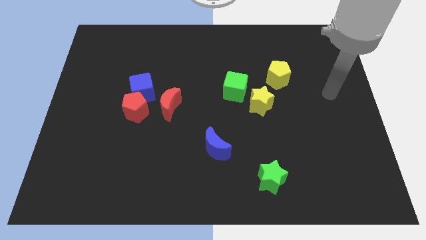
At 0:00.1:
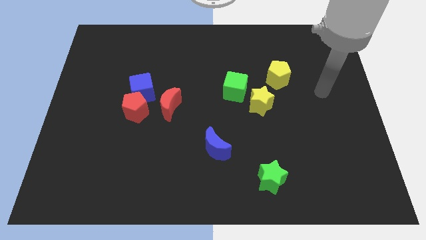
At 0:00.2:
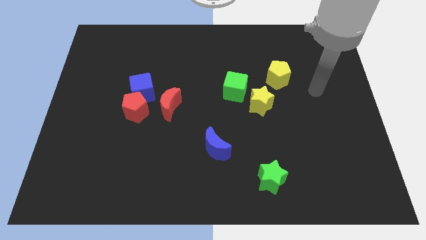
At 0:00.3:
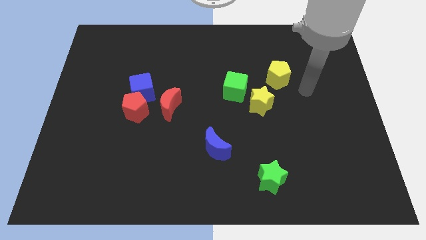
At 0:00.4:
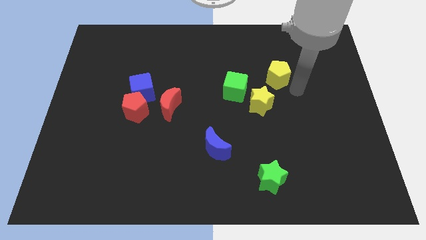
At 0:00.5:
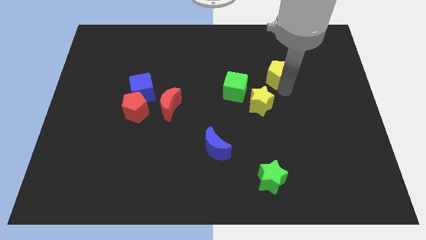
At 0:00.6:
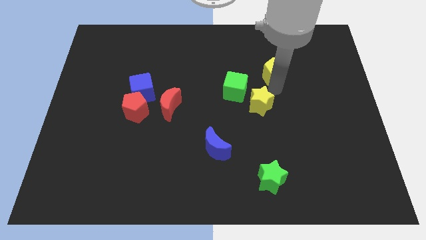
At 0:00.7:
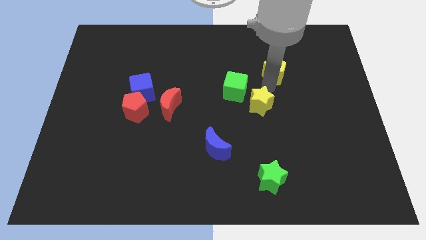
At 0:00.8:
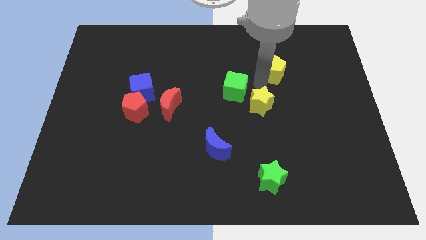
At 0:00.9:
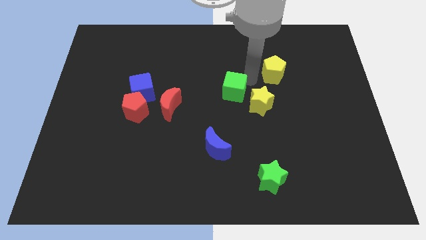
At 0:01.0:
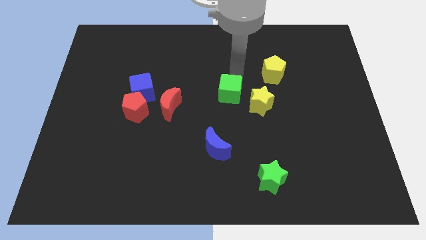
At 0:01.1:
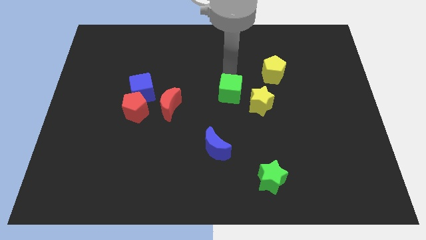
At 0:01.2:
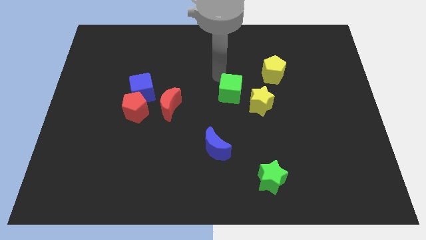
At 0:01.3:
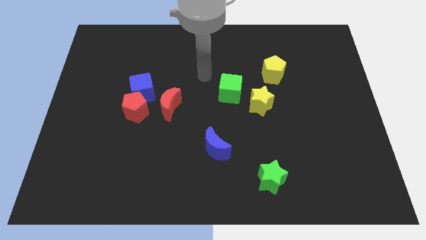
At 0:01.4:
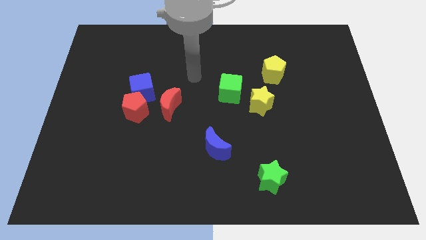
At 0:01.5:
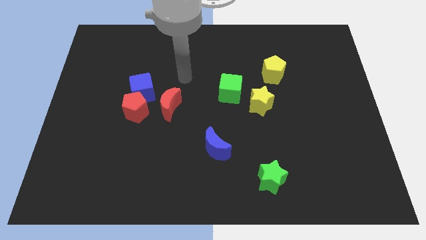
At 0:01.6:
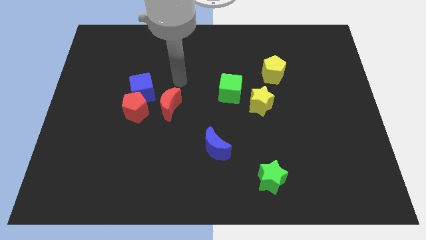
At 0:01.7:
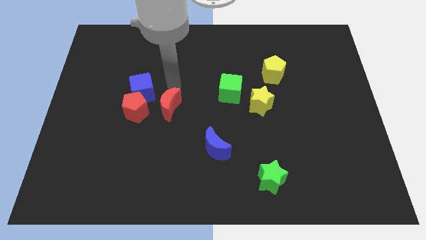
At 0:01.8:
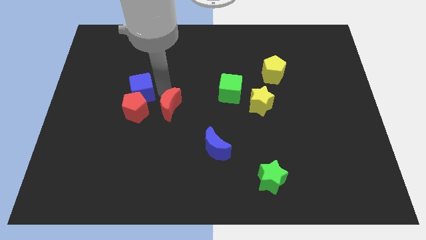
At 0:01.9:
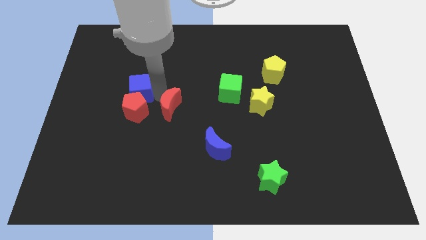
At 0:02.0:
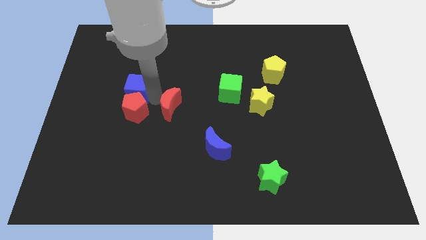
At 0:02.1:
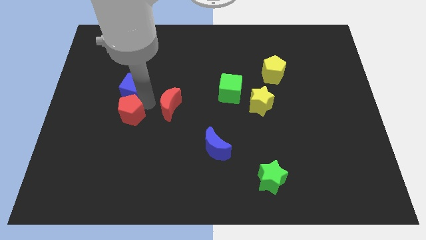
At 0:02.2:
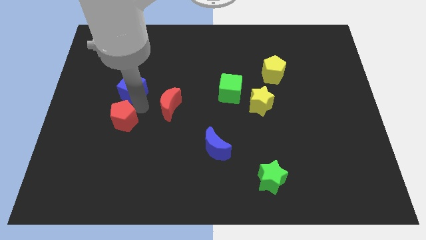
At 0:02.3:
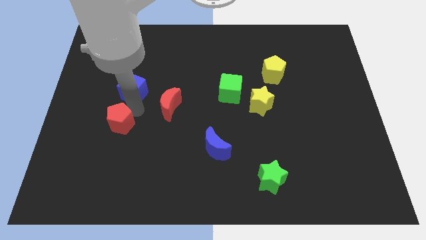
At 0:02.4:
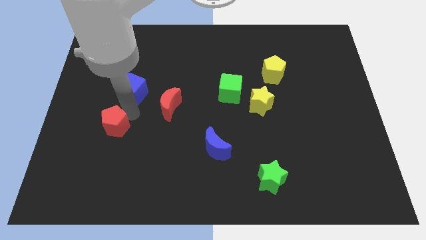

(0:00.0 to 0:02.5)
pull the red pentagon apart from the blue cube and red moon

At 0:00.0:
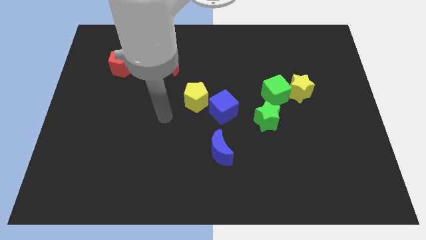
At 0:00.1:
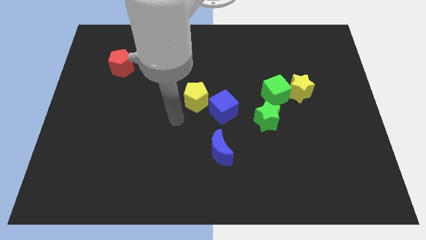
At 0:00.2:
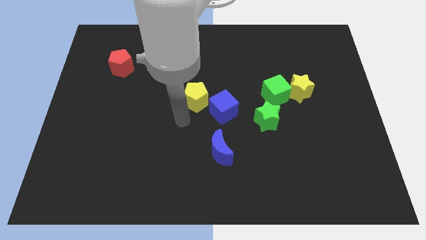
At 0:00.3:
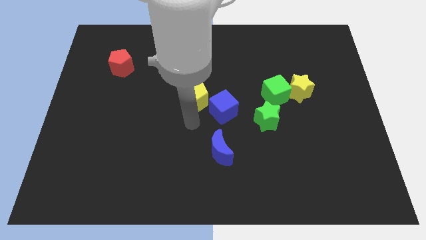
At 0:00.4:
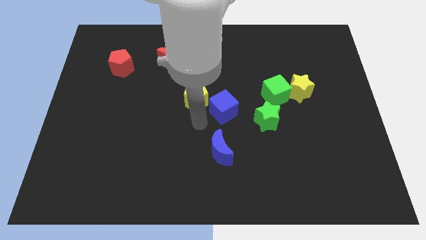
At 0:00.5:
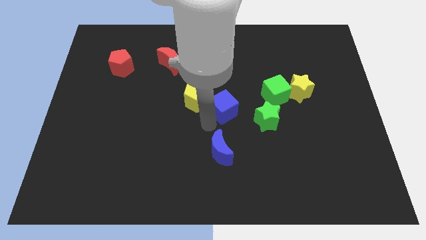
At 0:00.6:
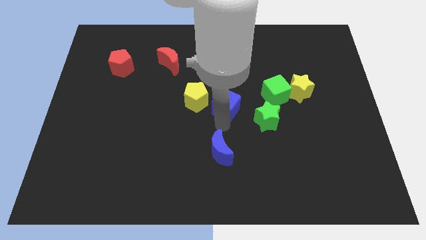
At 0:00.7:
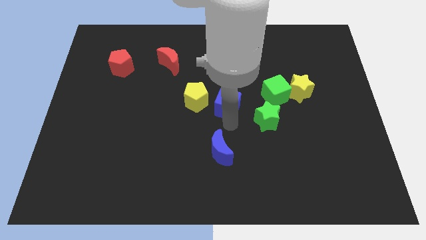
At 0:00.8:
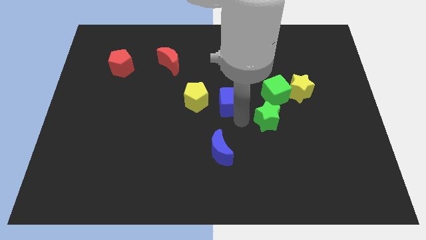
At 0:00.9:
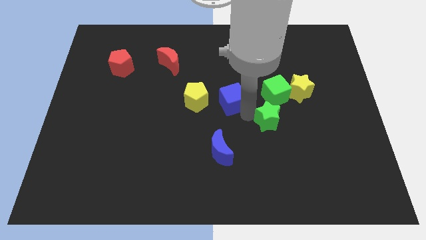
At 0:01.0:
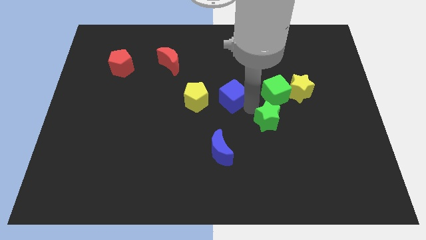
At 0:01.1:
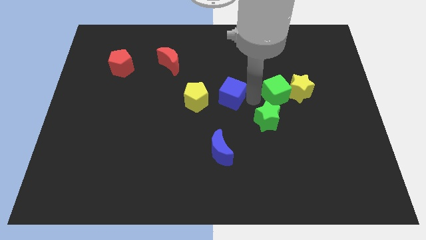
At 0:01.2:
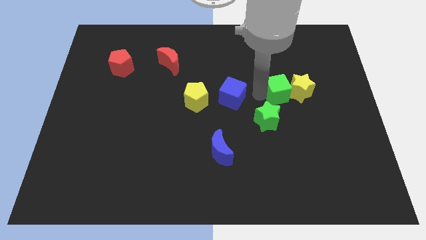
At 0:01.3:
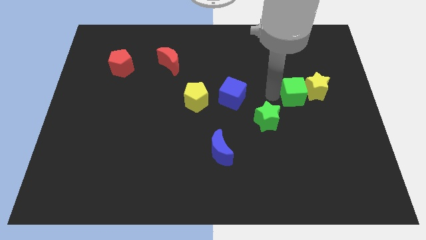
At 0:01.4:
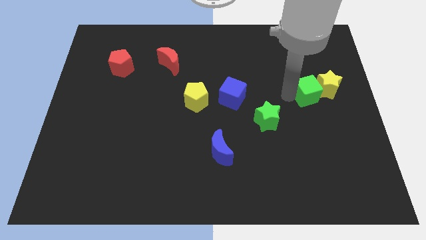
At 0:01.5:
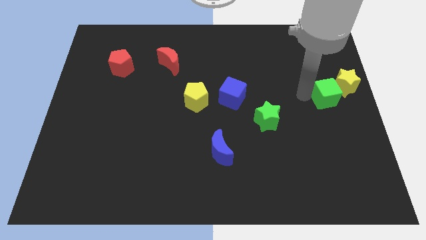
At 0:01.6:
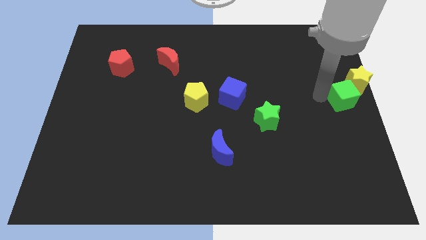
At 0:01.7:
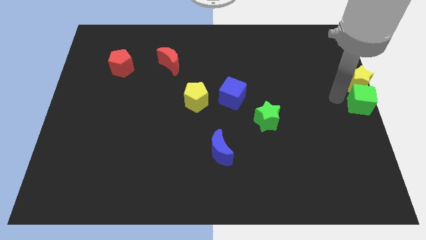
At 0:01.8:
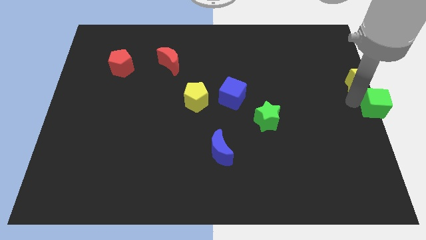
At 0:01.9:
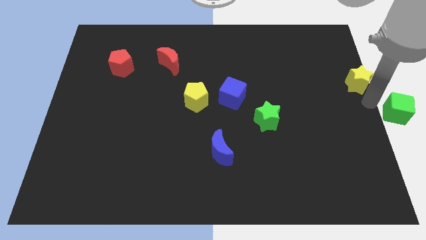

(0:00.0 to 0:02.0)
move the yellow star away from the green cube

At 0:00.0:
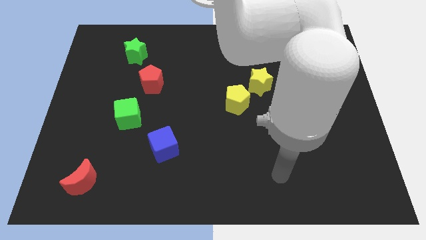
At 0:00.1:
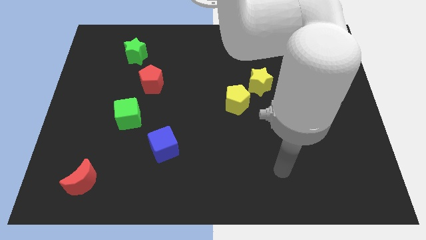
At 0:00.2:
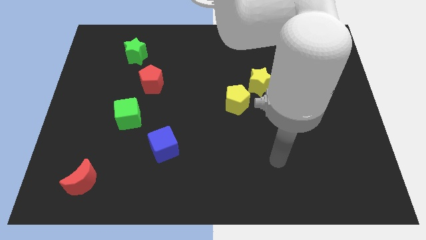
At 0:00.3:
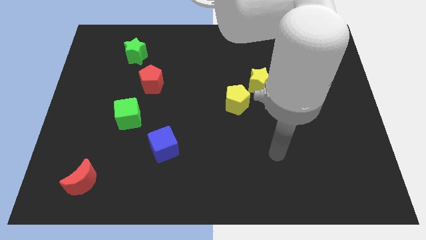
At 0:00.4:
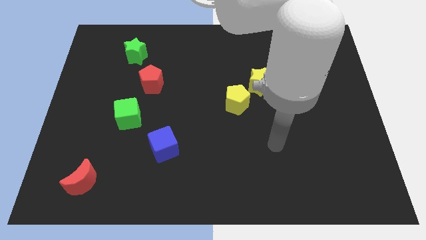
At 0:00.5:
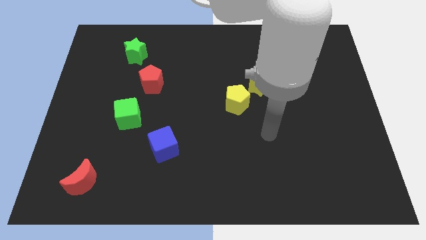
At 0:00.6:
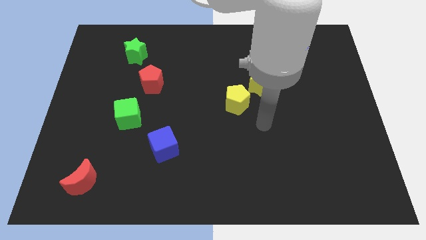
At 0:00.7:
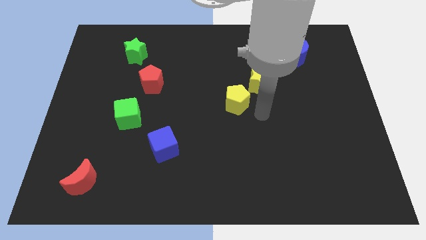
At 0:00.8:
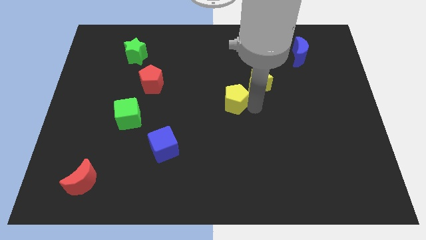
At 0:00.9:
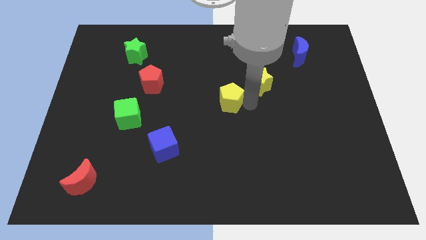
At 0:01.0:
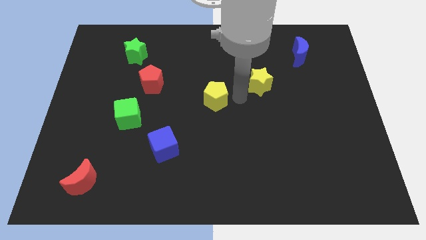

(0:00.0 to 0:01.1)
move the yellow star away from the yellow pentagon

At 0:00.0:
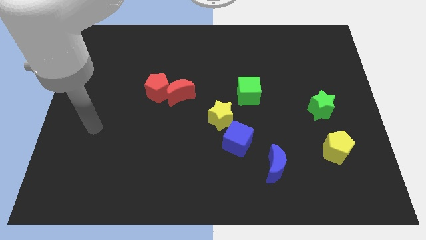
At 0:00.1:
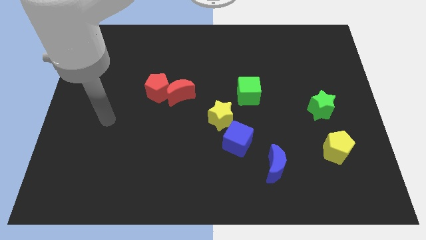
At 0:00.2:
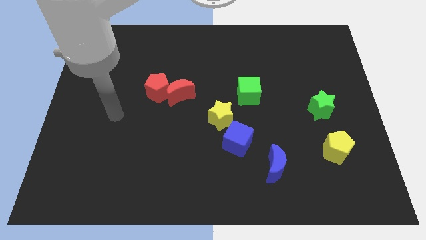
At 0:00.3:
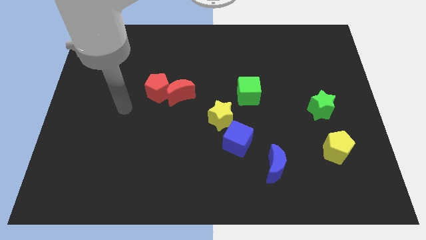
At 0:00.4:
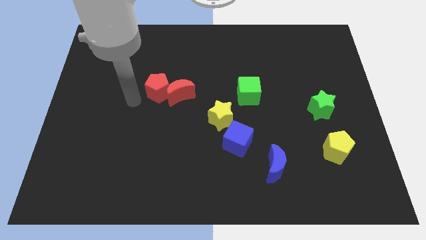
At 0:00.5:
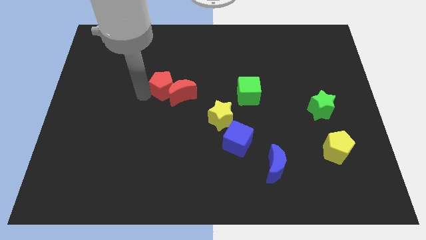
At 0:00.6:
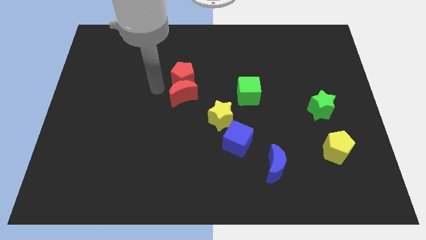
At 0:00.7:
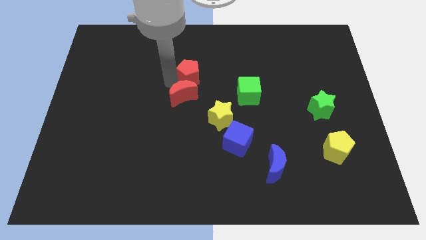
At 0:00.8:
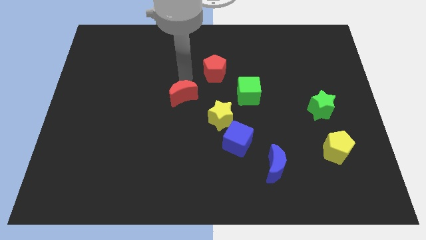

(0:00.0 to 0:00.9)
separate the red moon from the red pentagon

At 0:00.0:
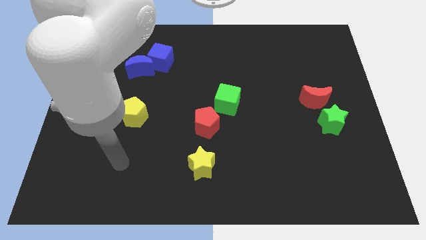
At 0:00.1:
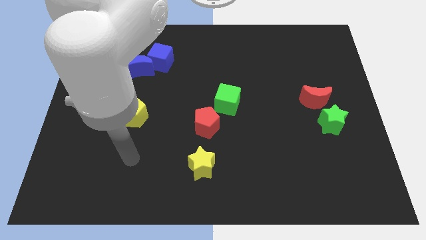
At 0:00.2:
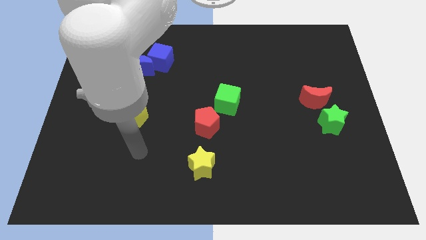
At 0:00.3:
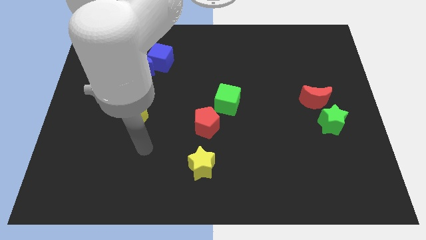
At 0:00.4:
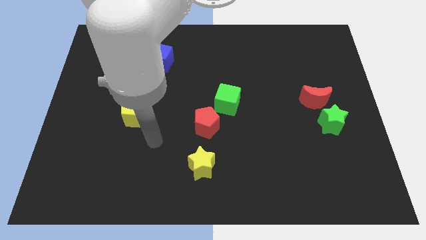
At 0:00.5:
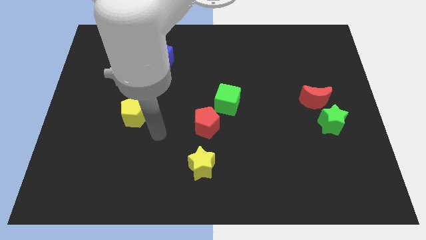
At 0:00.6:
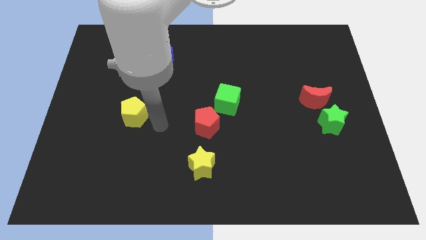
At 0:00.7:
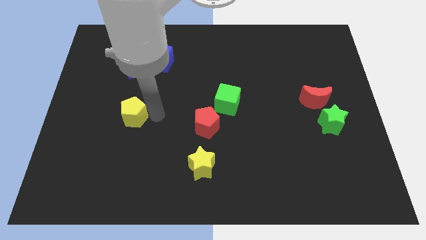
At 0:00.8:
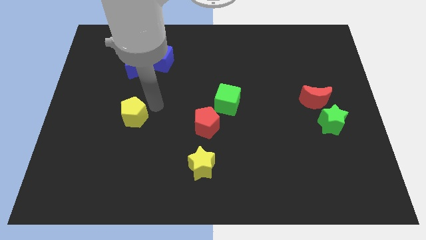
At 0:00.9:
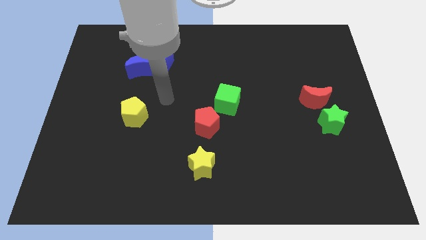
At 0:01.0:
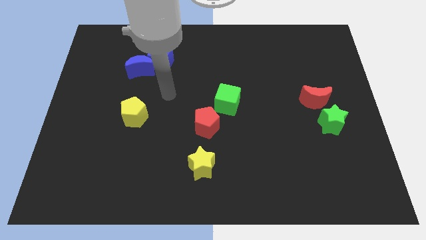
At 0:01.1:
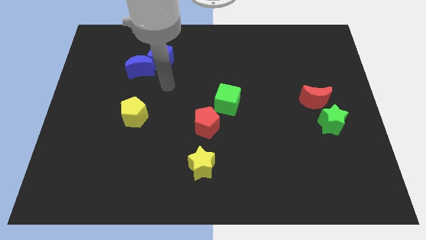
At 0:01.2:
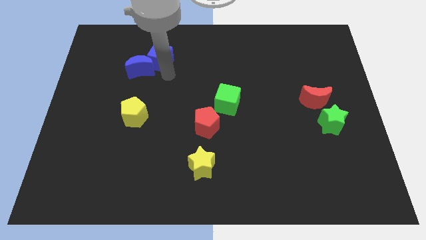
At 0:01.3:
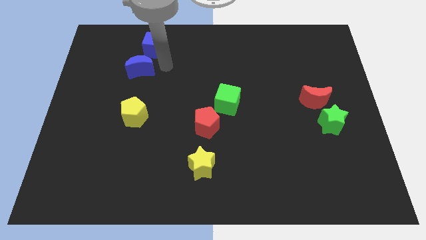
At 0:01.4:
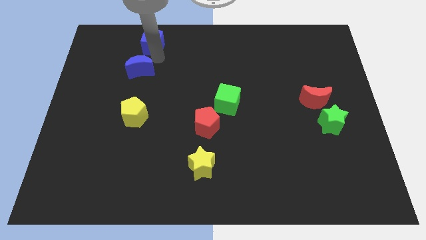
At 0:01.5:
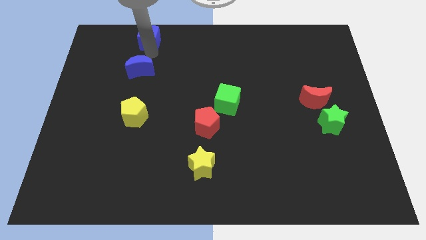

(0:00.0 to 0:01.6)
move the blue moon away from the blue cube

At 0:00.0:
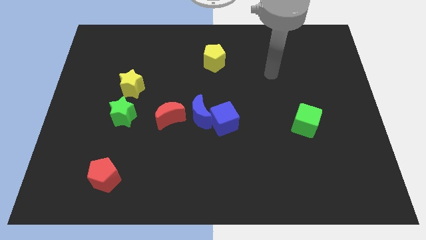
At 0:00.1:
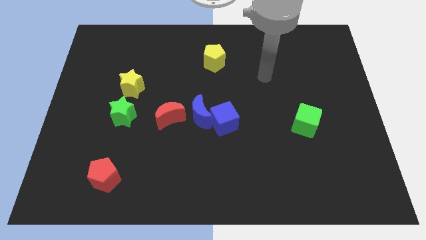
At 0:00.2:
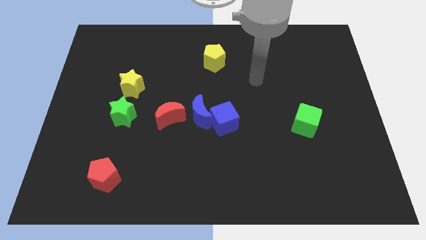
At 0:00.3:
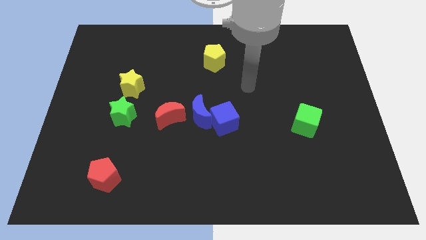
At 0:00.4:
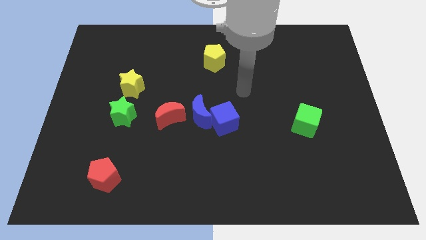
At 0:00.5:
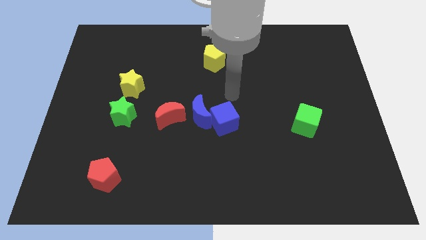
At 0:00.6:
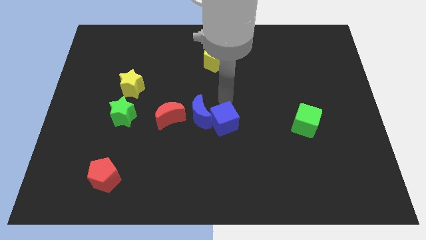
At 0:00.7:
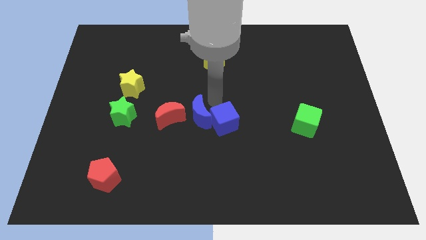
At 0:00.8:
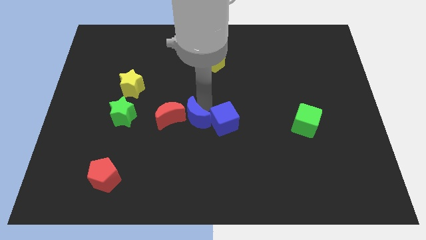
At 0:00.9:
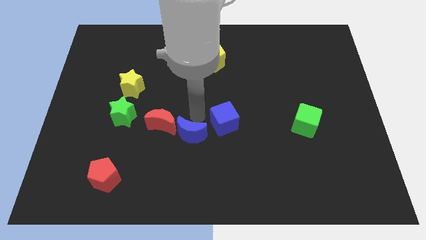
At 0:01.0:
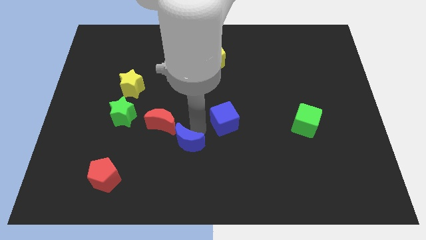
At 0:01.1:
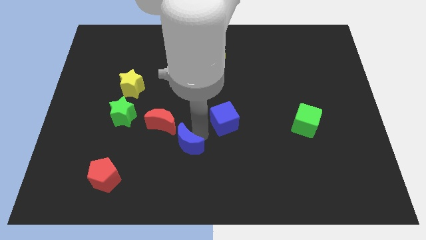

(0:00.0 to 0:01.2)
separate the blue cube from the blue moon
